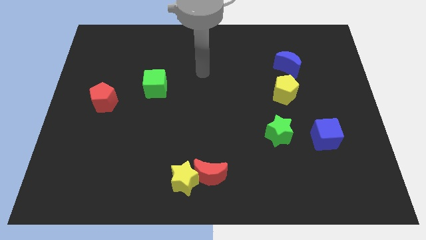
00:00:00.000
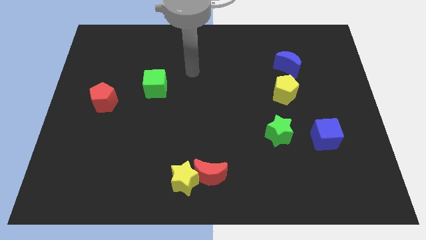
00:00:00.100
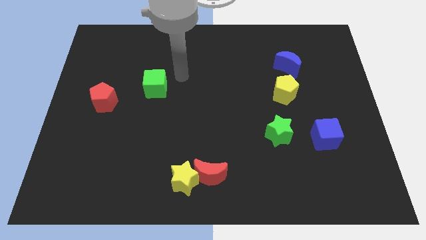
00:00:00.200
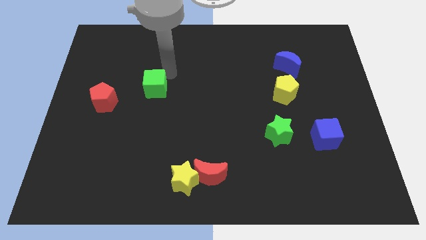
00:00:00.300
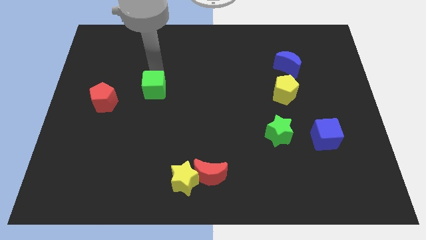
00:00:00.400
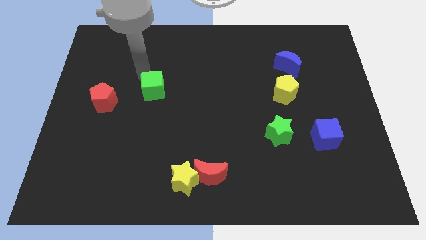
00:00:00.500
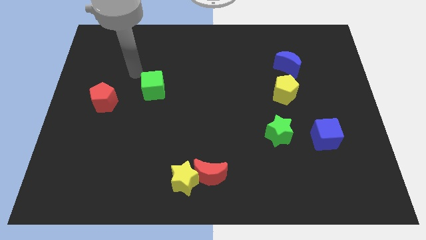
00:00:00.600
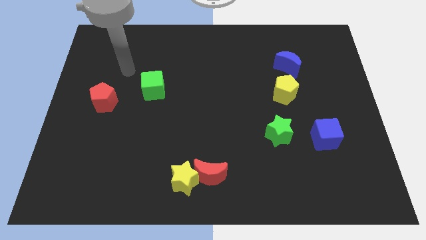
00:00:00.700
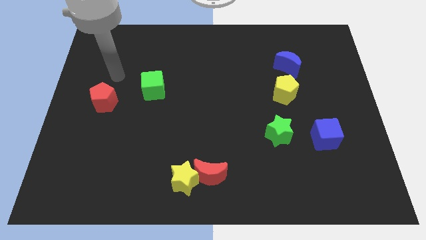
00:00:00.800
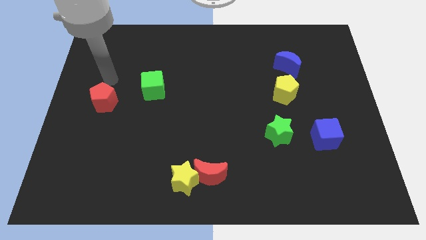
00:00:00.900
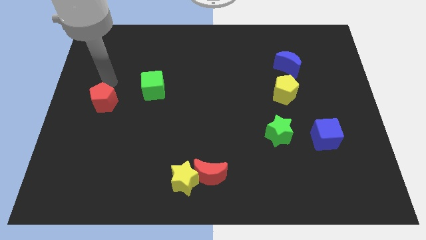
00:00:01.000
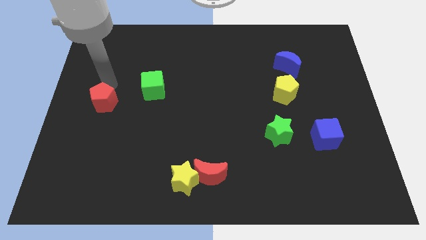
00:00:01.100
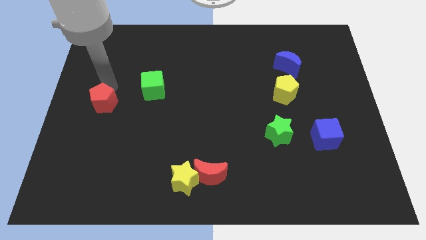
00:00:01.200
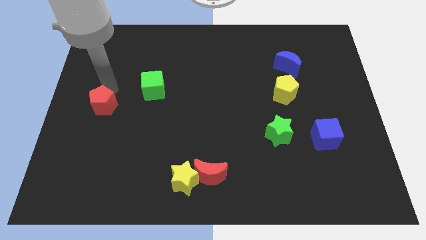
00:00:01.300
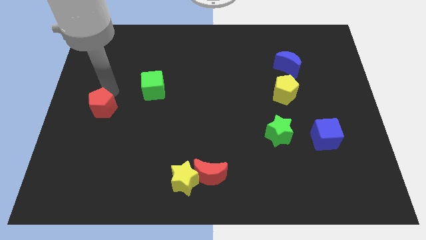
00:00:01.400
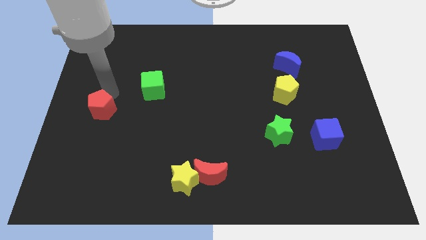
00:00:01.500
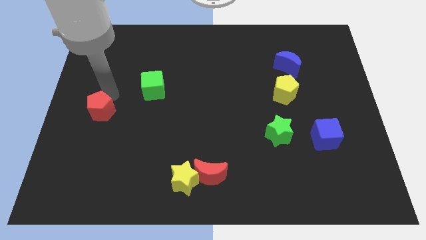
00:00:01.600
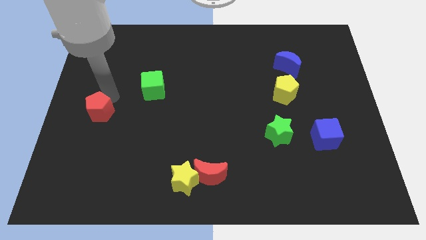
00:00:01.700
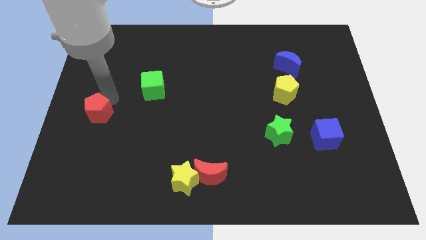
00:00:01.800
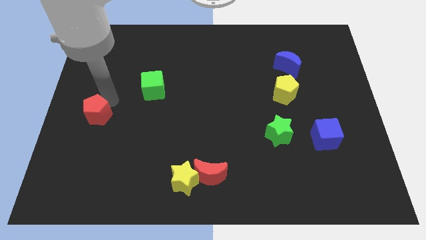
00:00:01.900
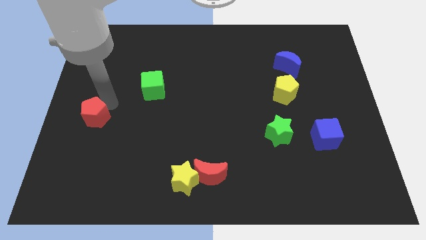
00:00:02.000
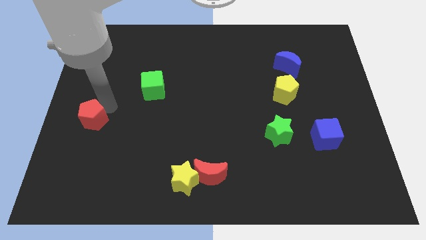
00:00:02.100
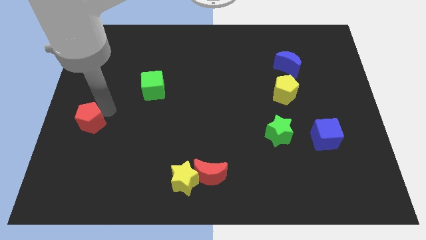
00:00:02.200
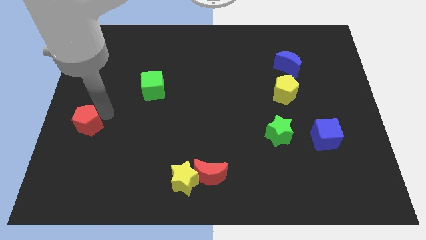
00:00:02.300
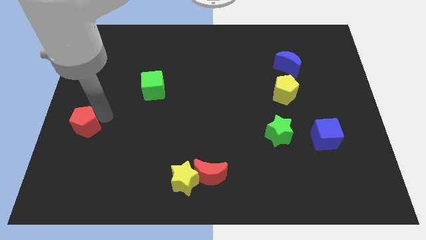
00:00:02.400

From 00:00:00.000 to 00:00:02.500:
push the red pentagon a little bit downwards

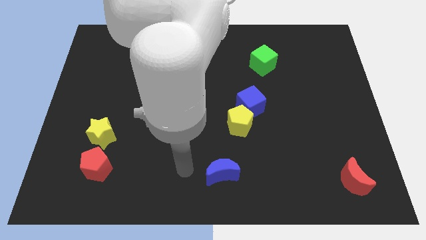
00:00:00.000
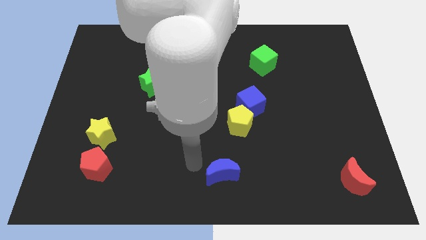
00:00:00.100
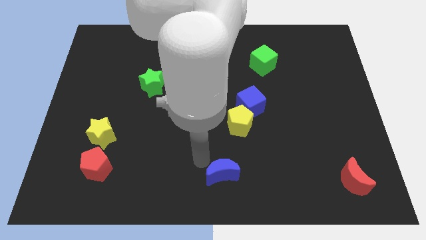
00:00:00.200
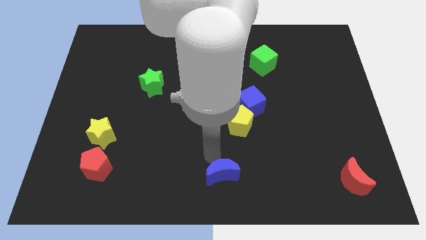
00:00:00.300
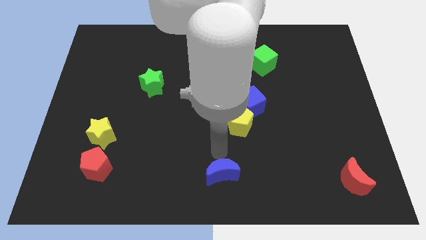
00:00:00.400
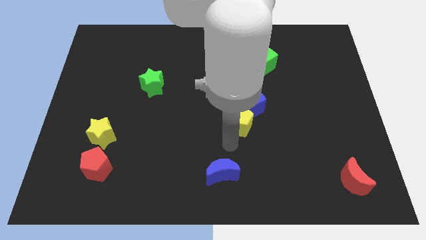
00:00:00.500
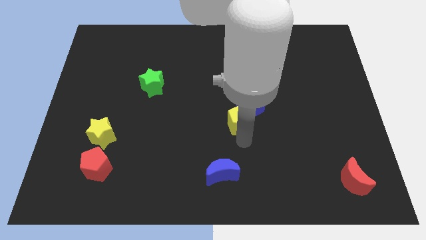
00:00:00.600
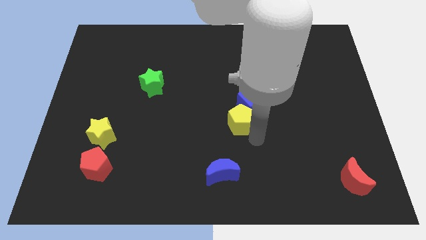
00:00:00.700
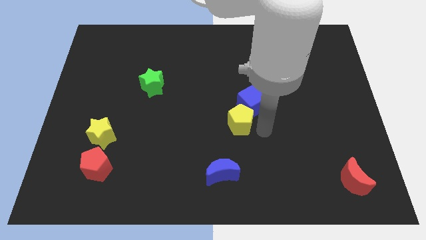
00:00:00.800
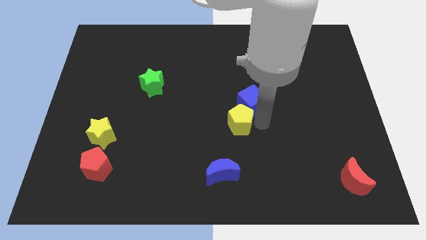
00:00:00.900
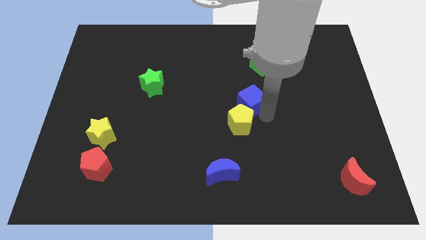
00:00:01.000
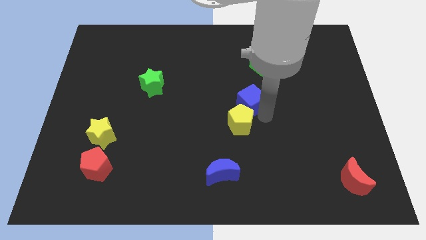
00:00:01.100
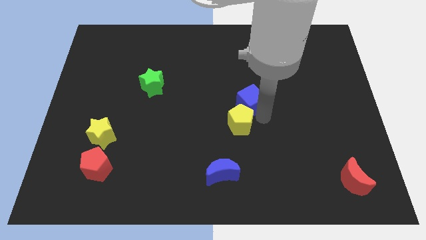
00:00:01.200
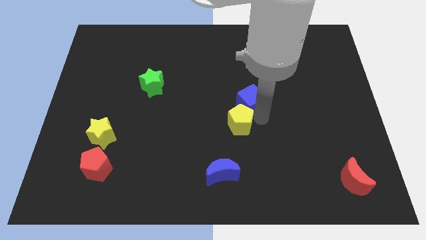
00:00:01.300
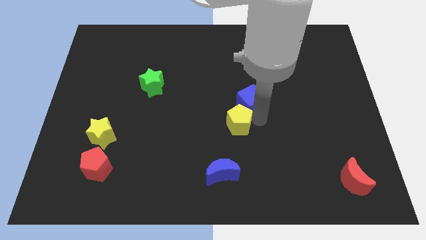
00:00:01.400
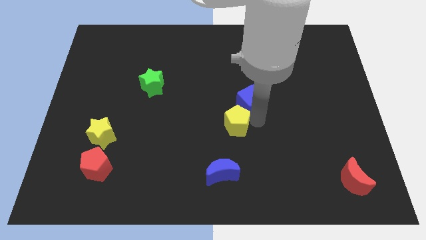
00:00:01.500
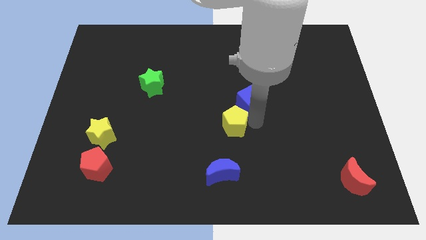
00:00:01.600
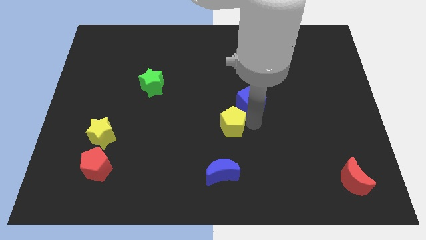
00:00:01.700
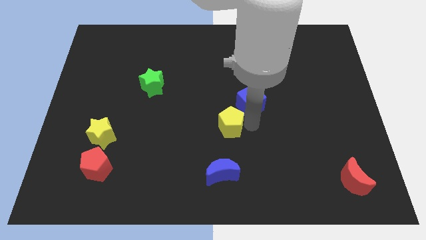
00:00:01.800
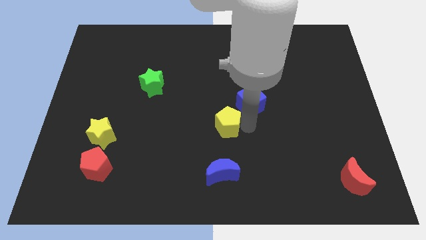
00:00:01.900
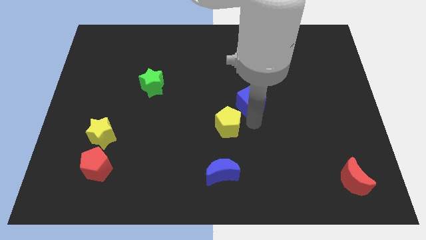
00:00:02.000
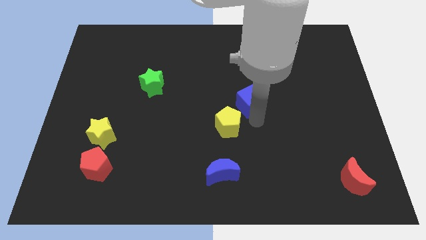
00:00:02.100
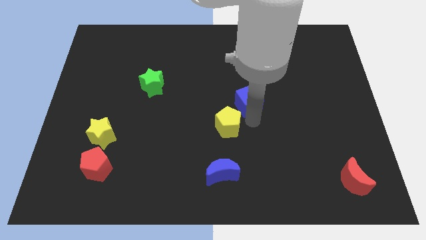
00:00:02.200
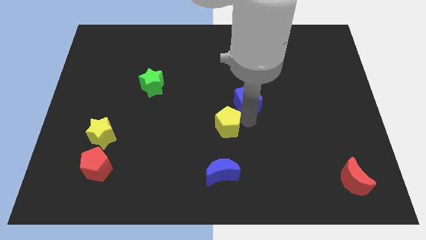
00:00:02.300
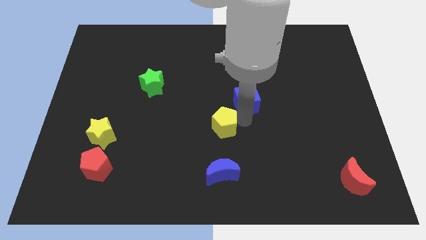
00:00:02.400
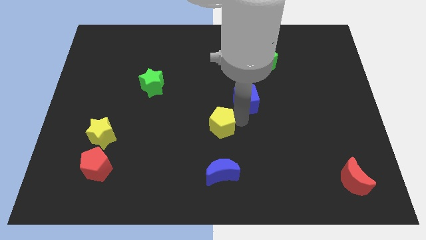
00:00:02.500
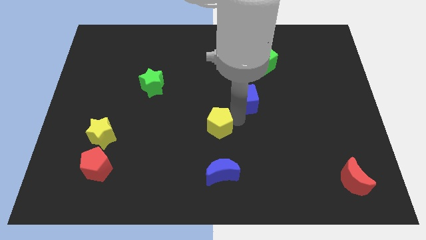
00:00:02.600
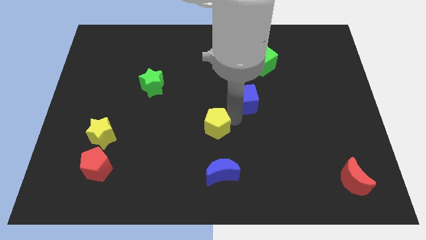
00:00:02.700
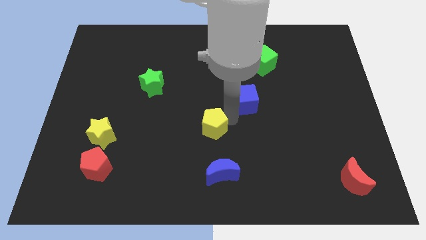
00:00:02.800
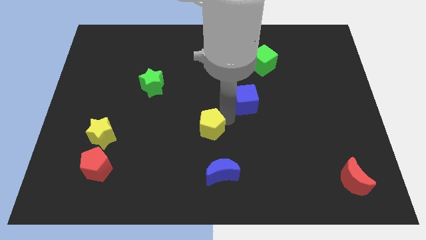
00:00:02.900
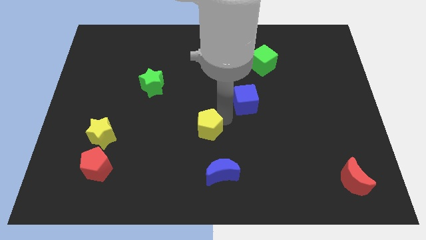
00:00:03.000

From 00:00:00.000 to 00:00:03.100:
push the yellow pentagon a little bit left

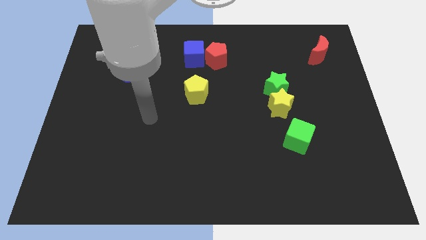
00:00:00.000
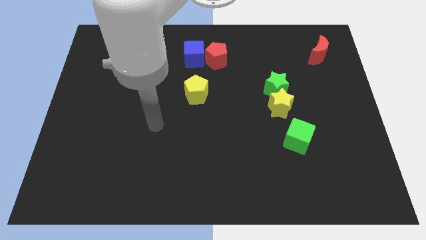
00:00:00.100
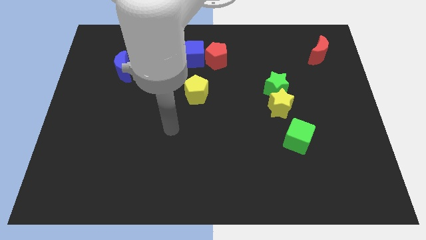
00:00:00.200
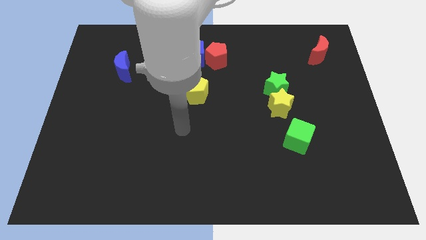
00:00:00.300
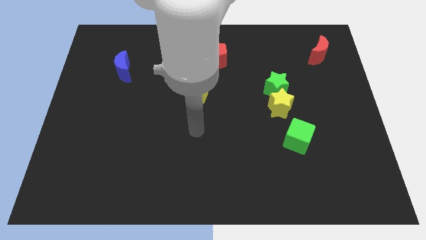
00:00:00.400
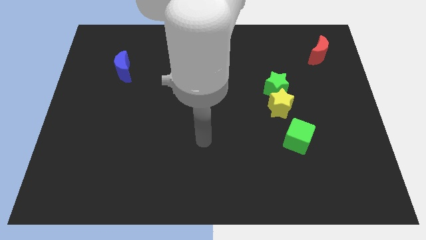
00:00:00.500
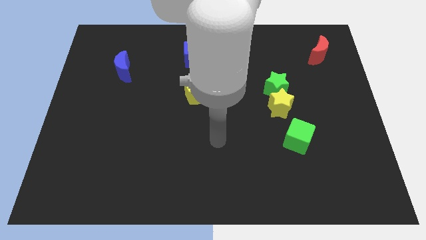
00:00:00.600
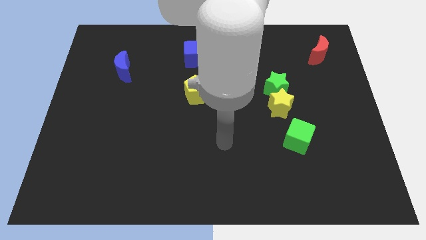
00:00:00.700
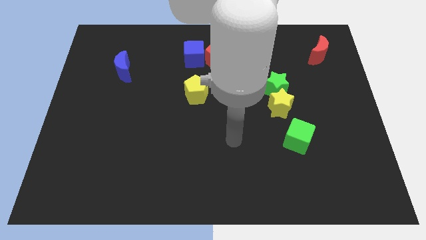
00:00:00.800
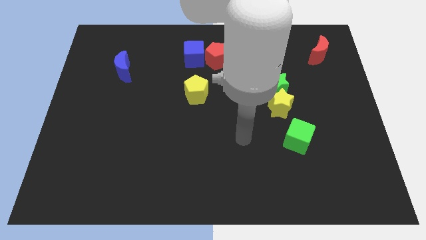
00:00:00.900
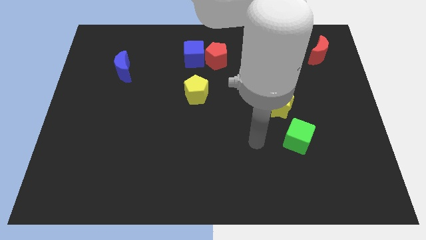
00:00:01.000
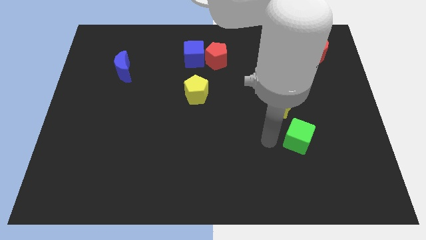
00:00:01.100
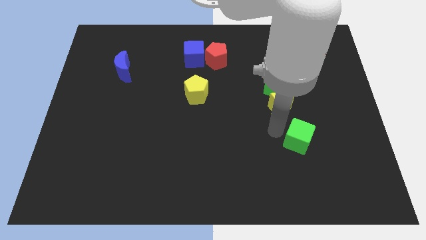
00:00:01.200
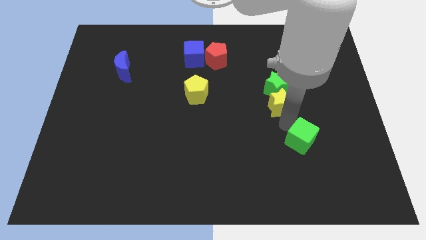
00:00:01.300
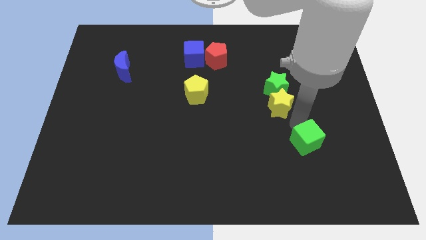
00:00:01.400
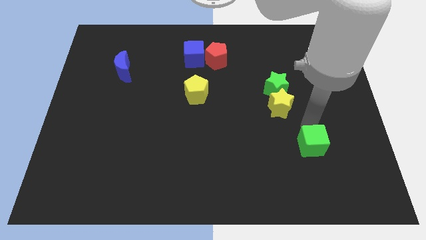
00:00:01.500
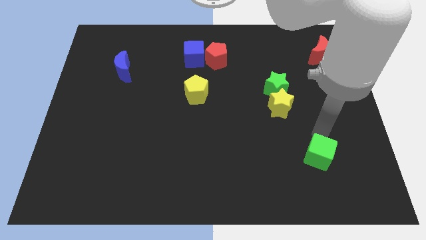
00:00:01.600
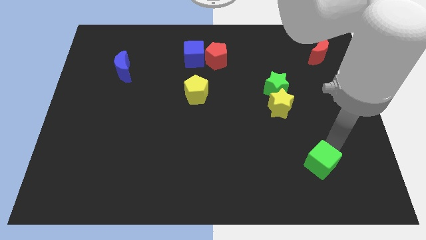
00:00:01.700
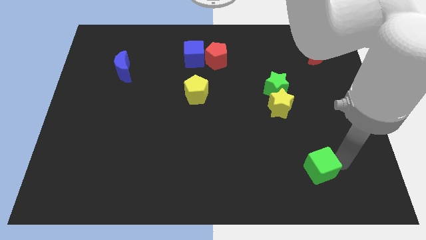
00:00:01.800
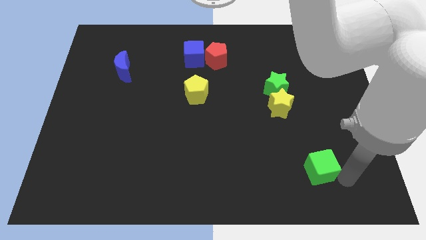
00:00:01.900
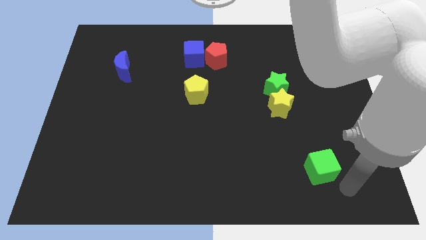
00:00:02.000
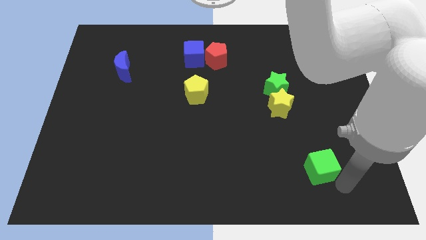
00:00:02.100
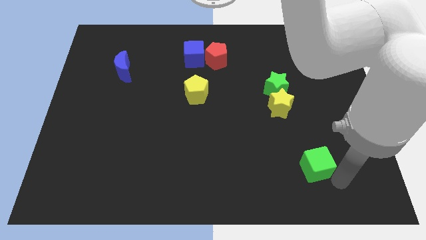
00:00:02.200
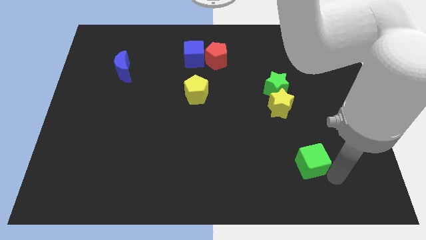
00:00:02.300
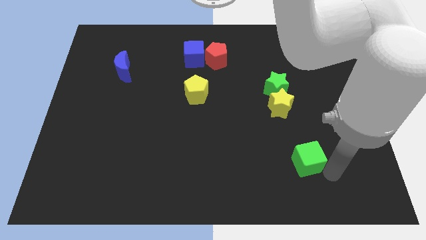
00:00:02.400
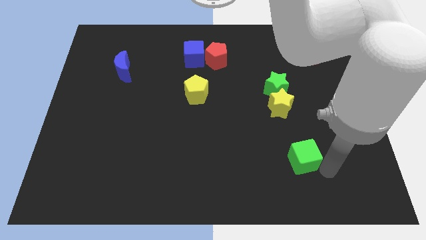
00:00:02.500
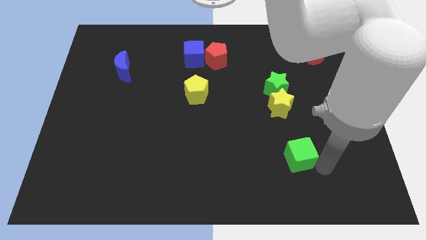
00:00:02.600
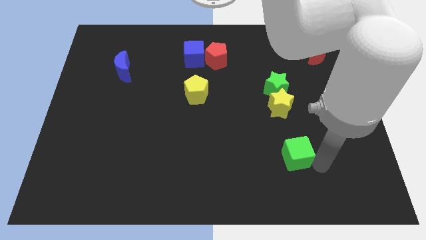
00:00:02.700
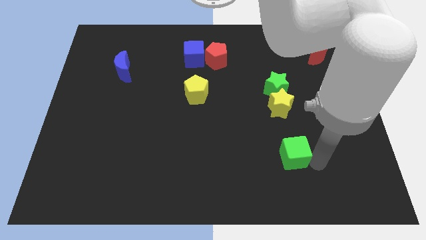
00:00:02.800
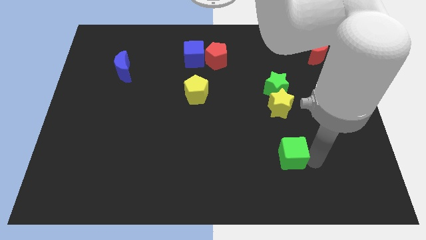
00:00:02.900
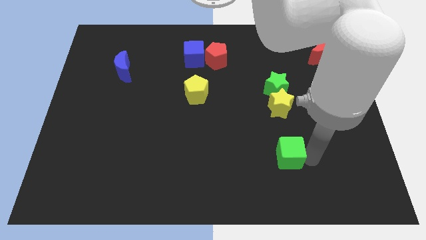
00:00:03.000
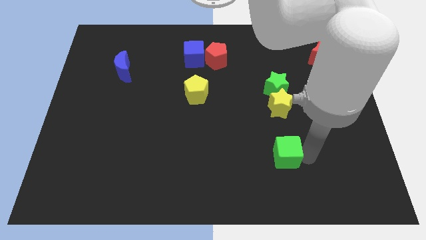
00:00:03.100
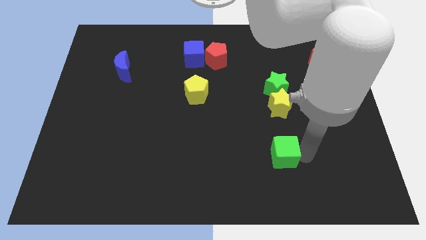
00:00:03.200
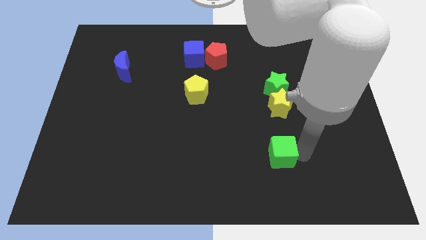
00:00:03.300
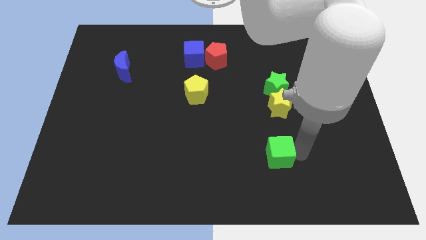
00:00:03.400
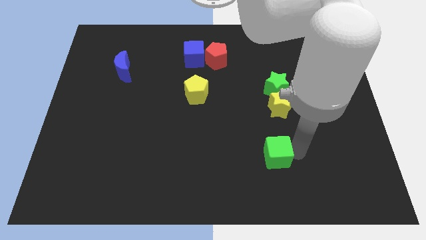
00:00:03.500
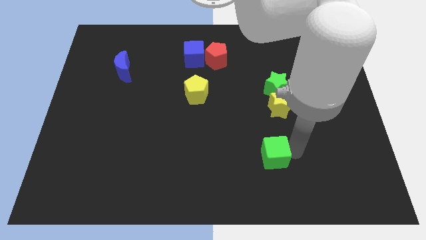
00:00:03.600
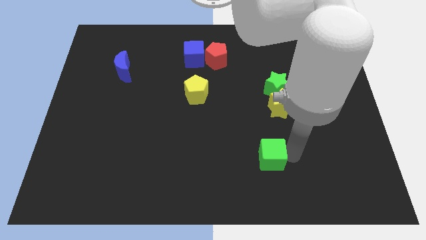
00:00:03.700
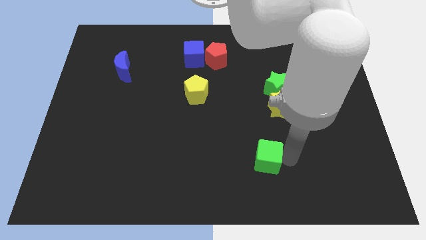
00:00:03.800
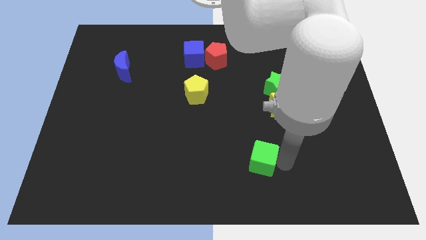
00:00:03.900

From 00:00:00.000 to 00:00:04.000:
move the green cube left slightly
